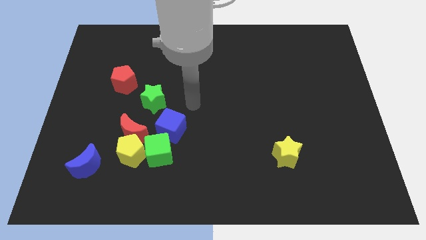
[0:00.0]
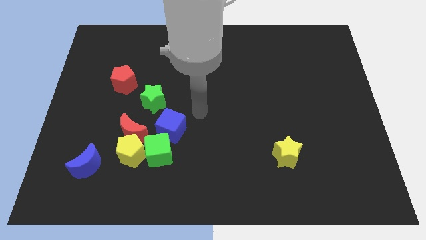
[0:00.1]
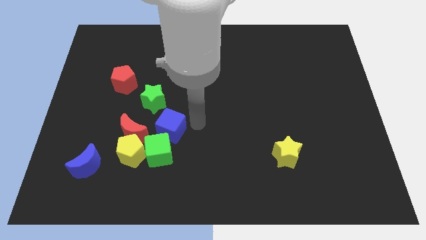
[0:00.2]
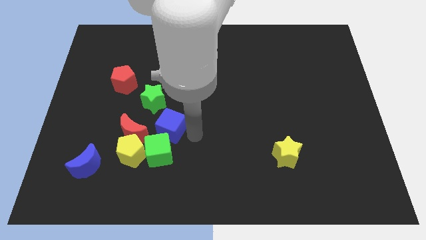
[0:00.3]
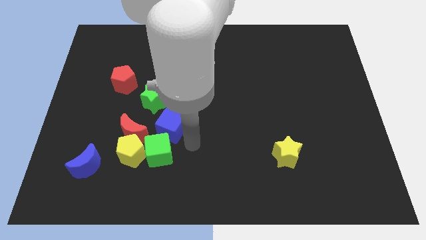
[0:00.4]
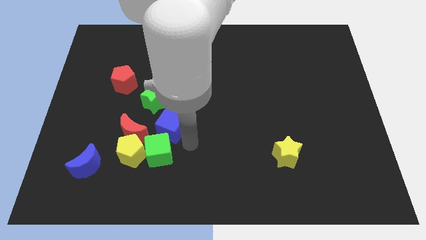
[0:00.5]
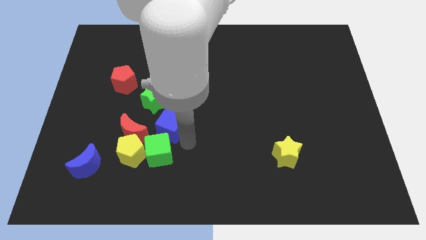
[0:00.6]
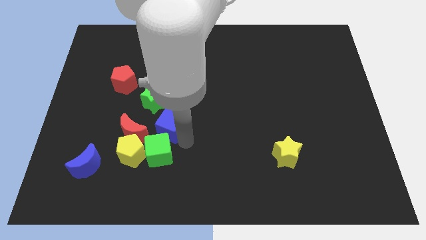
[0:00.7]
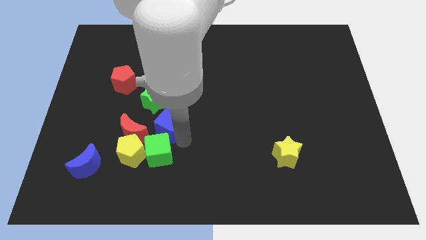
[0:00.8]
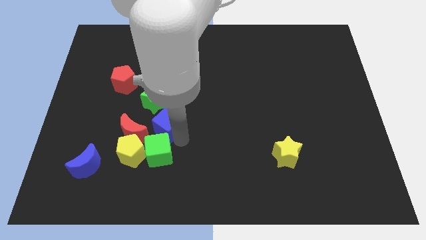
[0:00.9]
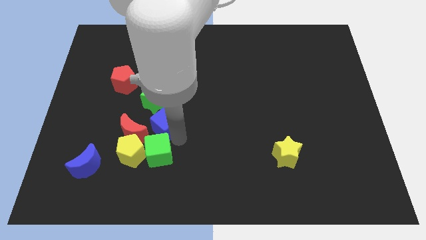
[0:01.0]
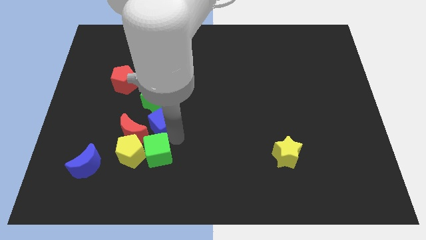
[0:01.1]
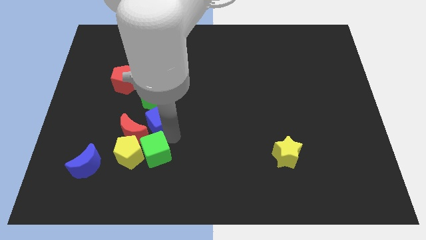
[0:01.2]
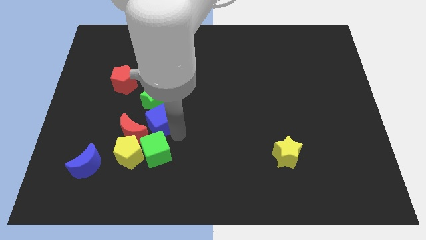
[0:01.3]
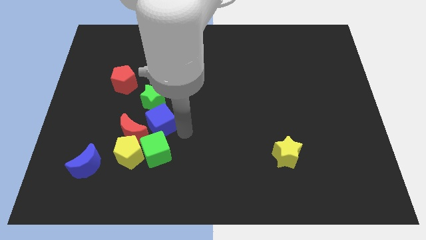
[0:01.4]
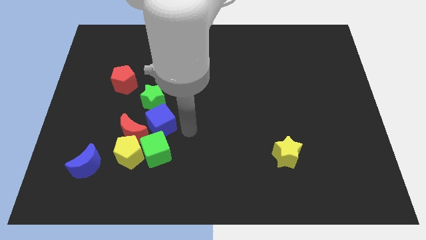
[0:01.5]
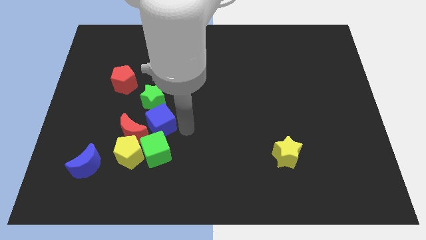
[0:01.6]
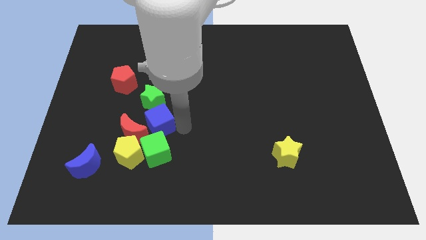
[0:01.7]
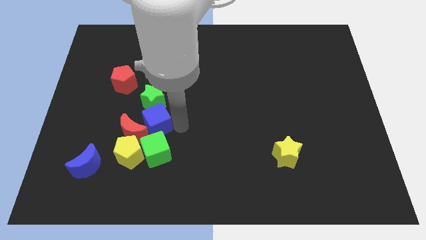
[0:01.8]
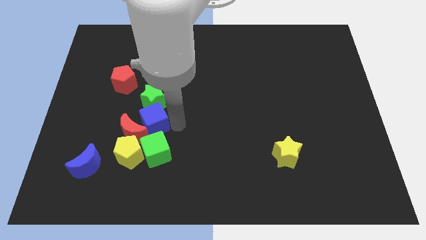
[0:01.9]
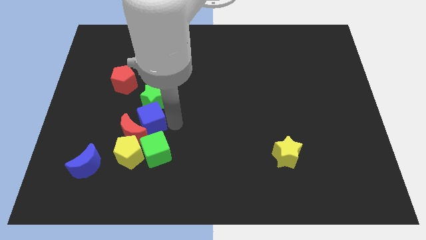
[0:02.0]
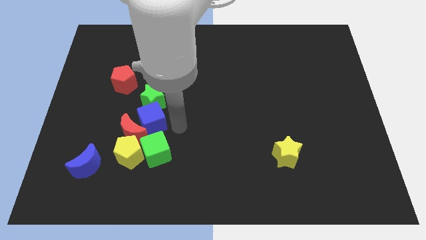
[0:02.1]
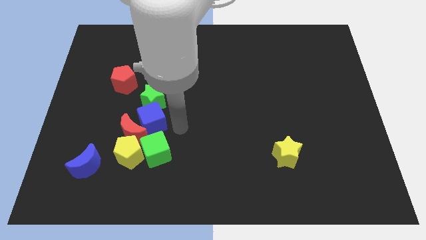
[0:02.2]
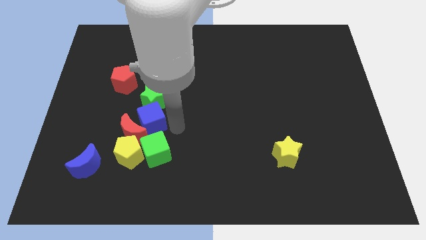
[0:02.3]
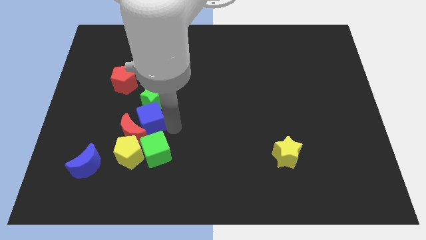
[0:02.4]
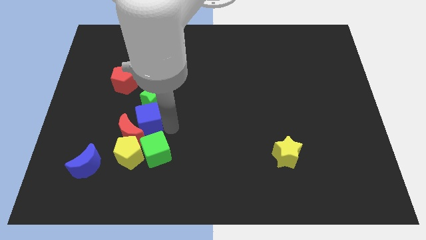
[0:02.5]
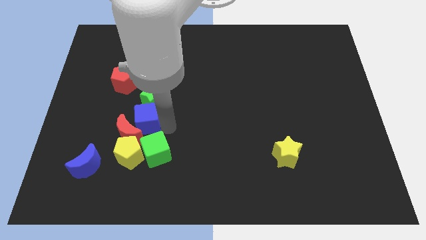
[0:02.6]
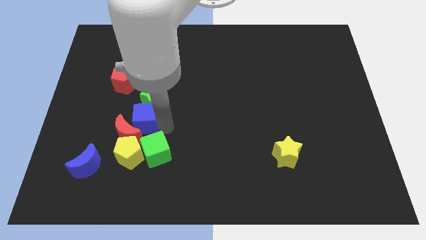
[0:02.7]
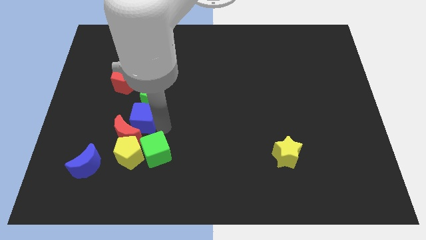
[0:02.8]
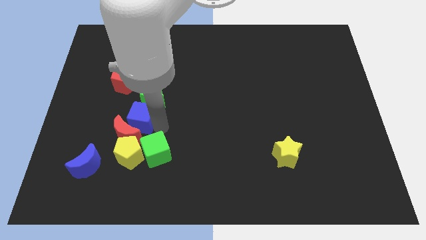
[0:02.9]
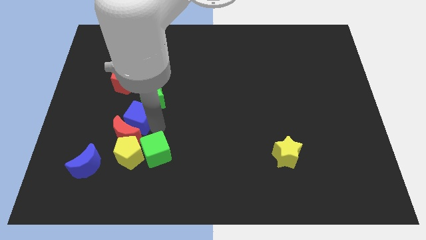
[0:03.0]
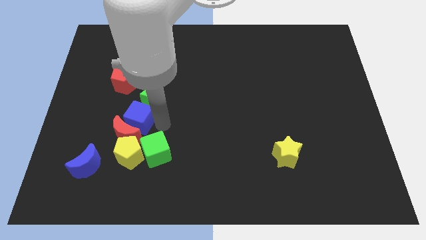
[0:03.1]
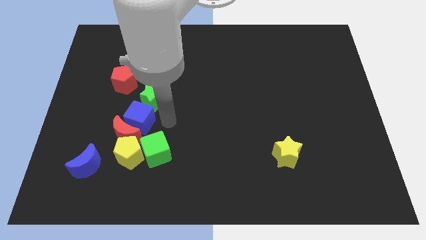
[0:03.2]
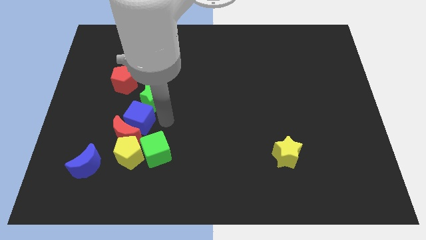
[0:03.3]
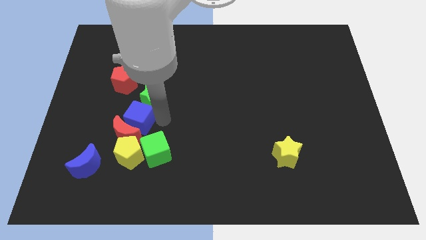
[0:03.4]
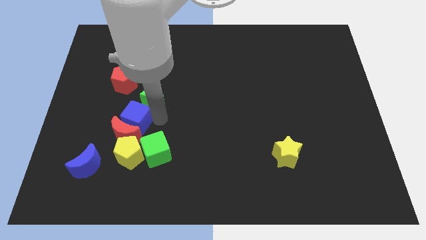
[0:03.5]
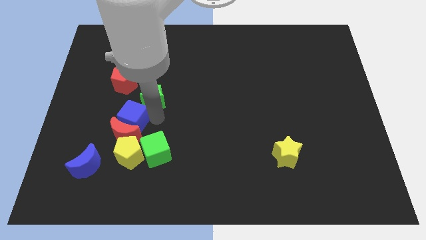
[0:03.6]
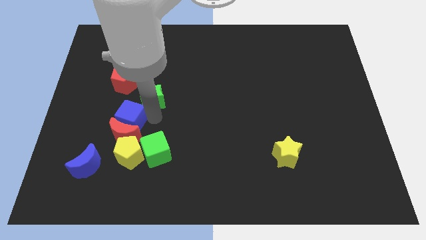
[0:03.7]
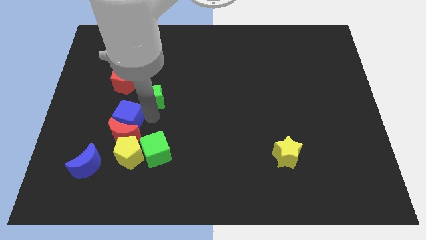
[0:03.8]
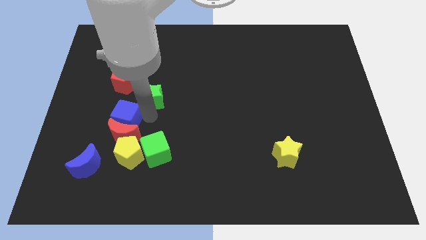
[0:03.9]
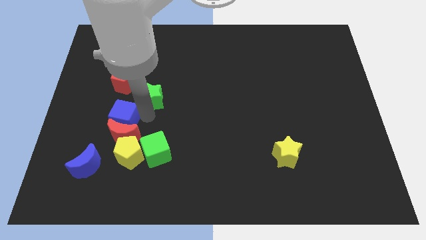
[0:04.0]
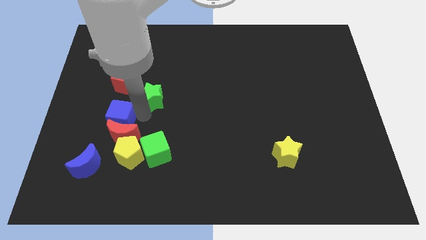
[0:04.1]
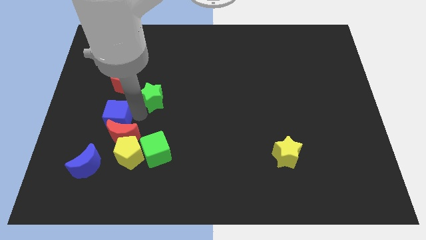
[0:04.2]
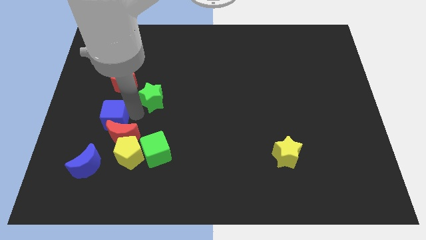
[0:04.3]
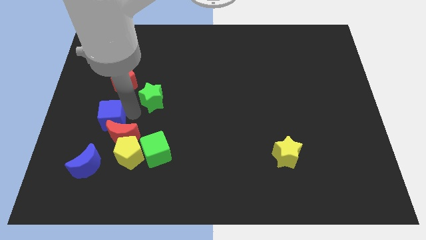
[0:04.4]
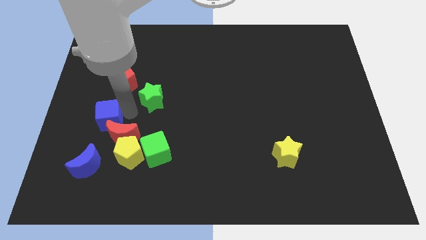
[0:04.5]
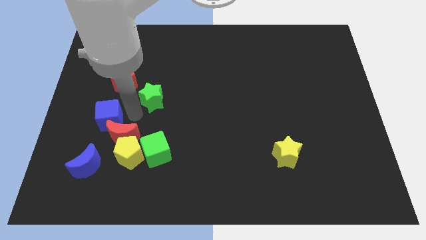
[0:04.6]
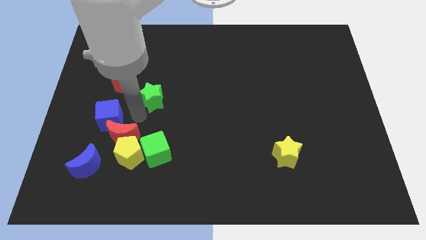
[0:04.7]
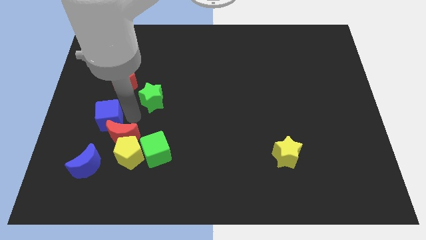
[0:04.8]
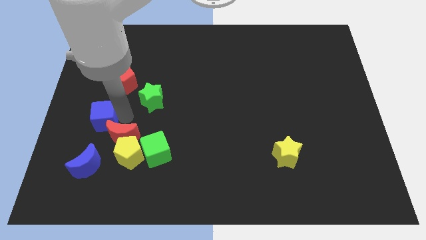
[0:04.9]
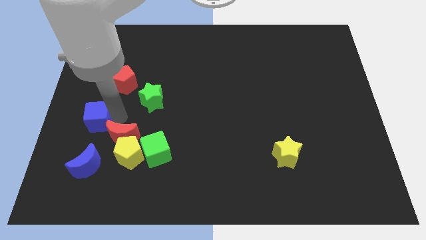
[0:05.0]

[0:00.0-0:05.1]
push the blue cube to the left side of the board

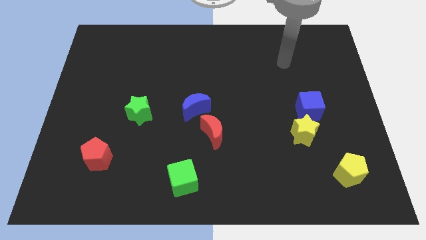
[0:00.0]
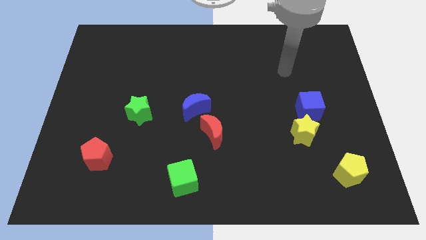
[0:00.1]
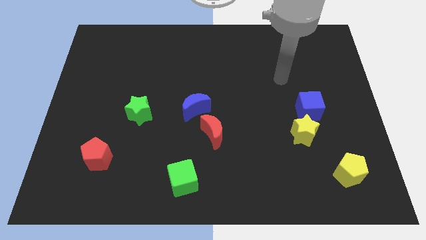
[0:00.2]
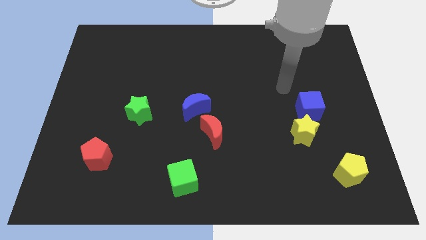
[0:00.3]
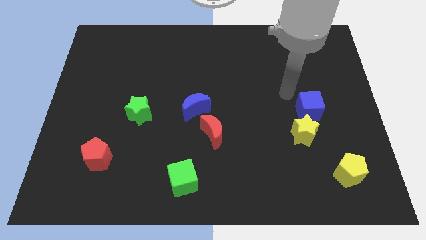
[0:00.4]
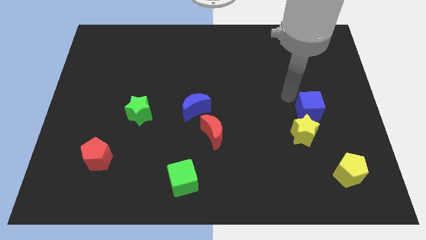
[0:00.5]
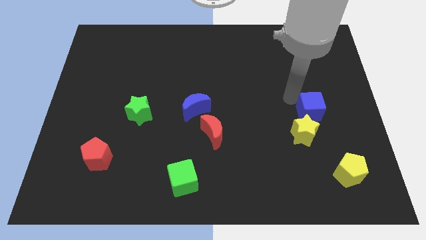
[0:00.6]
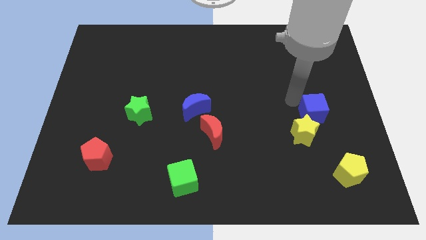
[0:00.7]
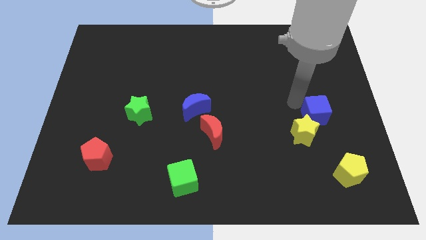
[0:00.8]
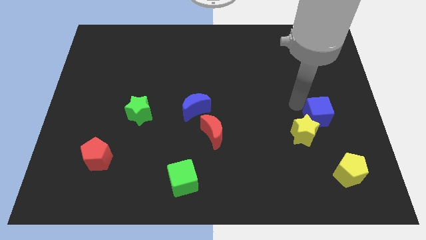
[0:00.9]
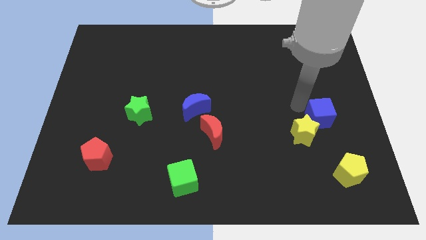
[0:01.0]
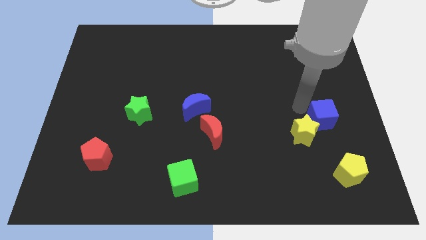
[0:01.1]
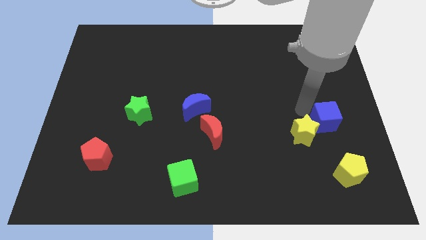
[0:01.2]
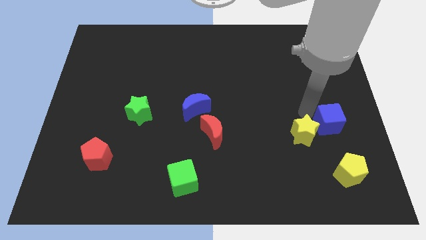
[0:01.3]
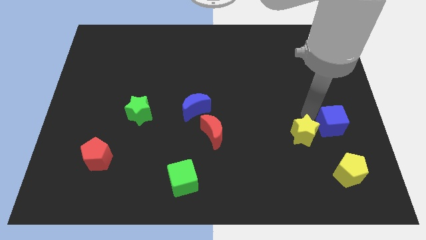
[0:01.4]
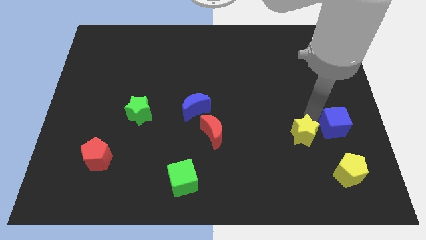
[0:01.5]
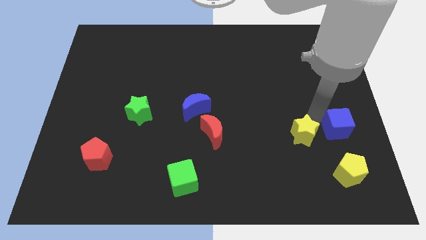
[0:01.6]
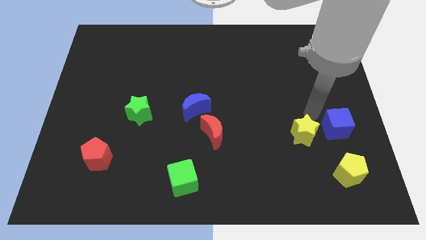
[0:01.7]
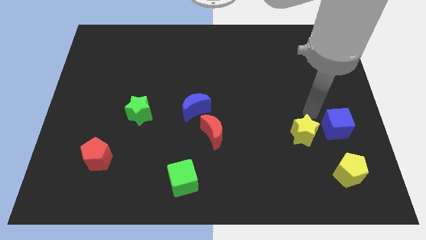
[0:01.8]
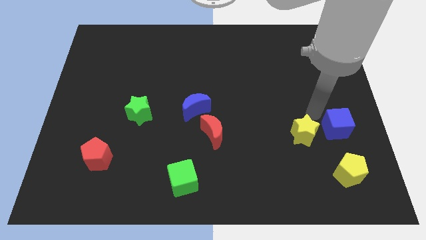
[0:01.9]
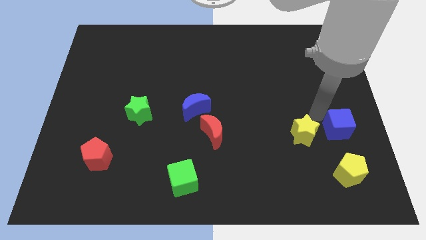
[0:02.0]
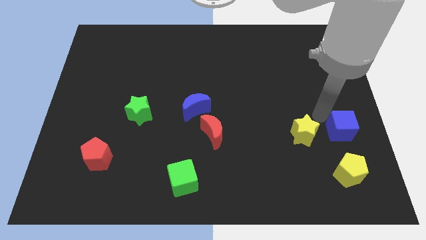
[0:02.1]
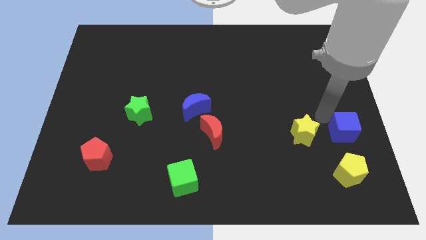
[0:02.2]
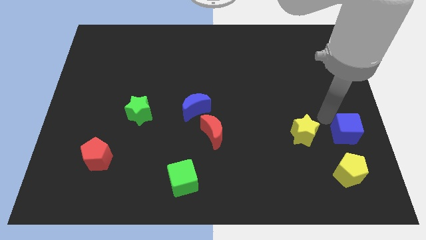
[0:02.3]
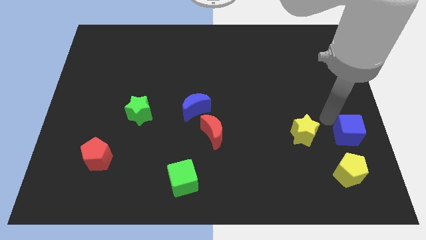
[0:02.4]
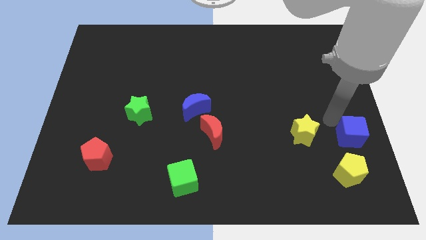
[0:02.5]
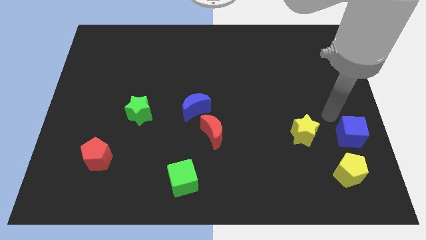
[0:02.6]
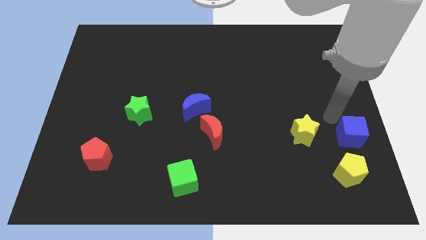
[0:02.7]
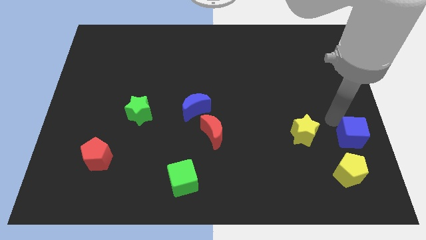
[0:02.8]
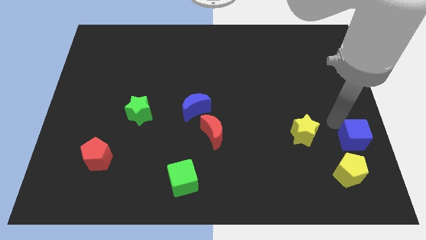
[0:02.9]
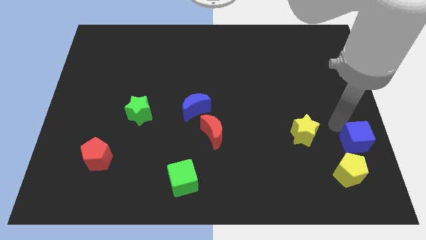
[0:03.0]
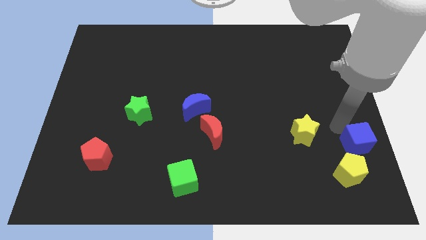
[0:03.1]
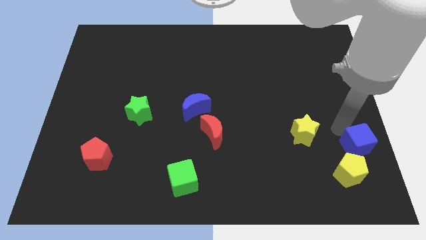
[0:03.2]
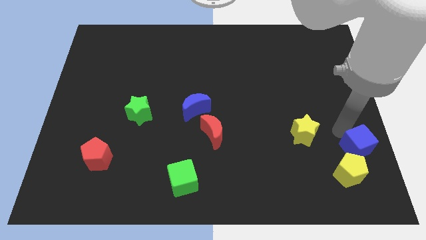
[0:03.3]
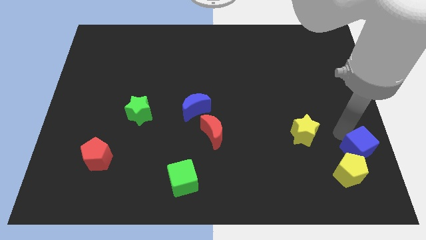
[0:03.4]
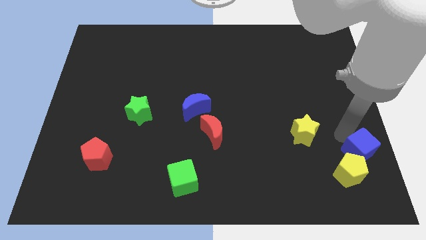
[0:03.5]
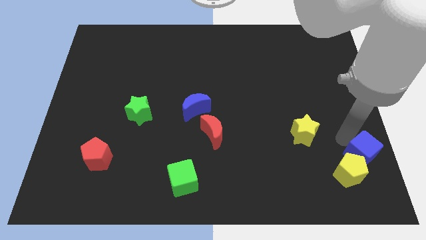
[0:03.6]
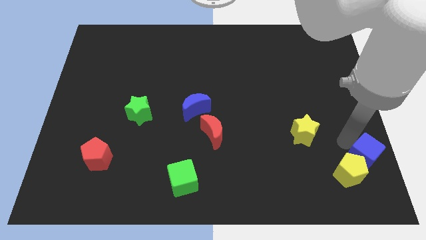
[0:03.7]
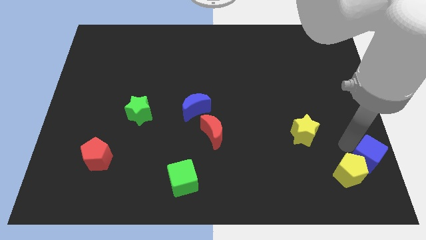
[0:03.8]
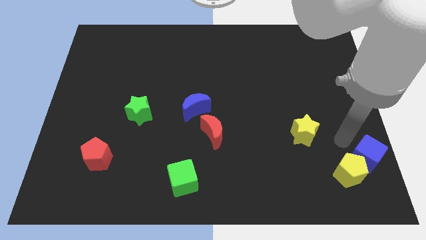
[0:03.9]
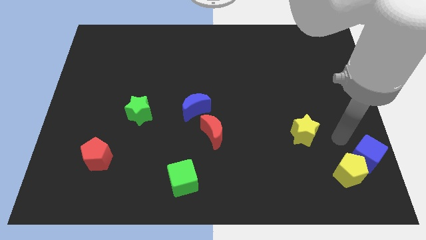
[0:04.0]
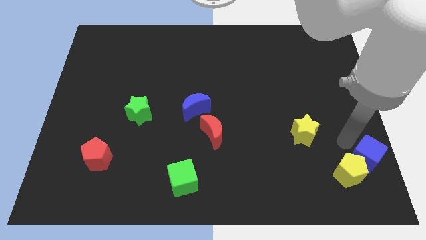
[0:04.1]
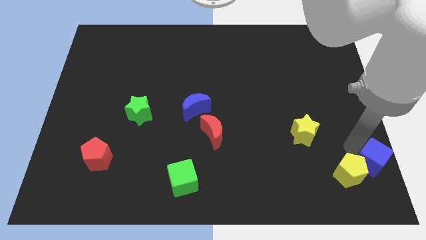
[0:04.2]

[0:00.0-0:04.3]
slide the blue cube to the lower right corner
